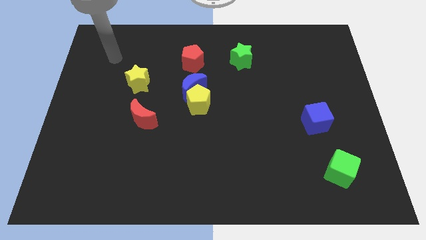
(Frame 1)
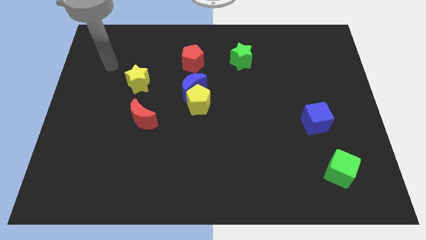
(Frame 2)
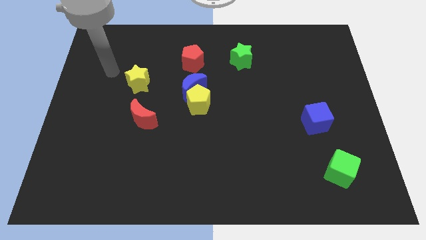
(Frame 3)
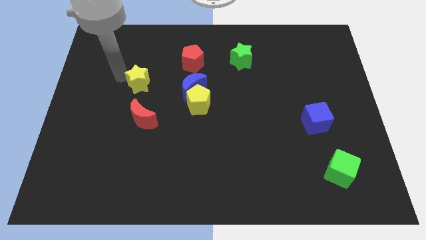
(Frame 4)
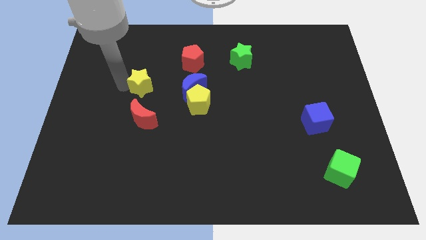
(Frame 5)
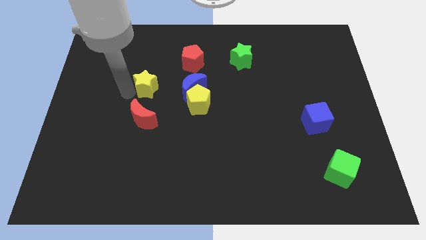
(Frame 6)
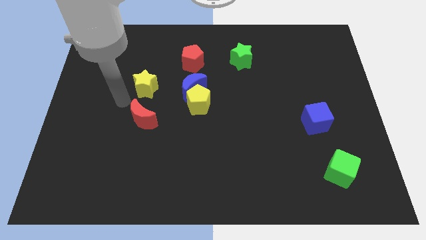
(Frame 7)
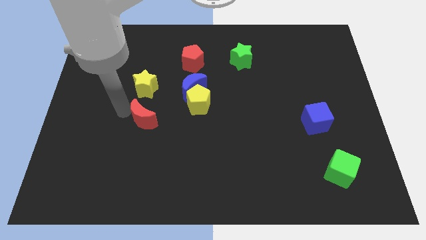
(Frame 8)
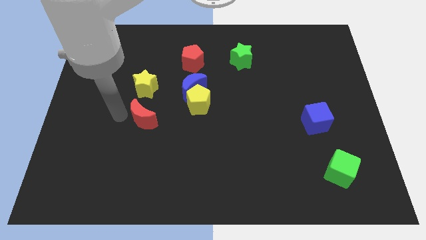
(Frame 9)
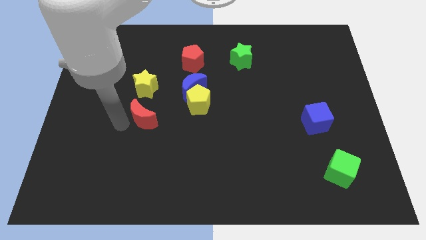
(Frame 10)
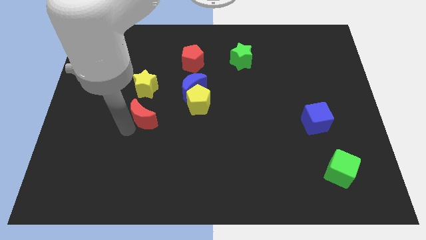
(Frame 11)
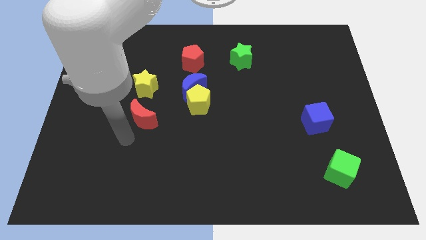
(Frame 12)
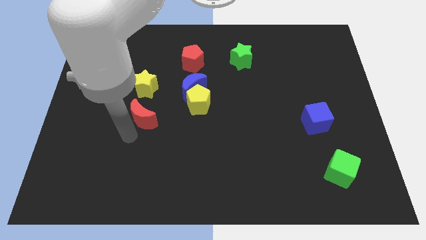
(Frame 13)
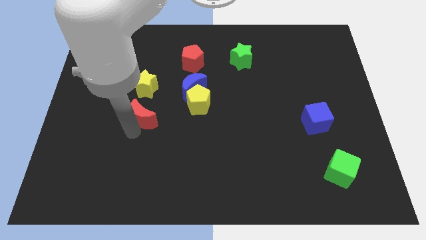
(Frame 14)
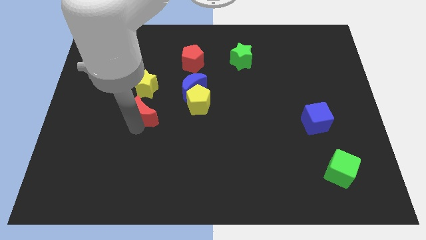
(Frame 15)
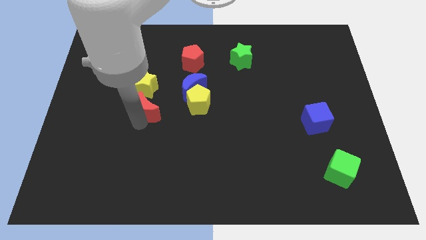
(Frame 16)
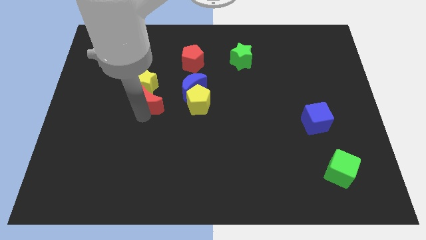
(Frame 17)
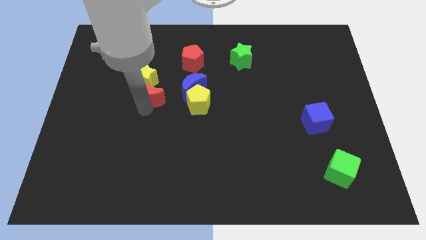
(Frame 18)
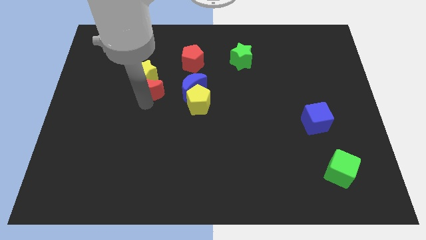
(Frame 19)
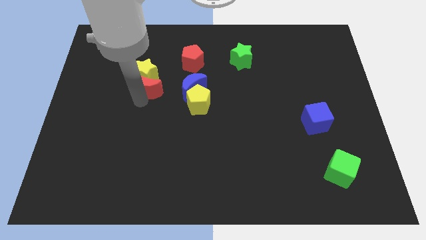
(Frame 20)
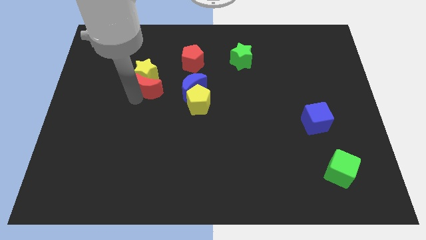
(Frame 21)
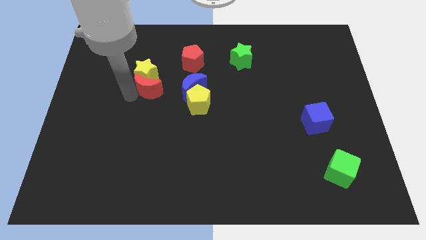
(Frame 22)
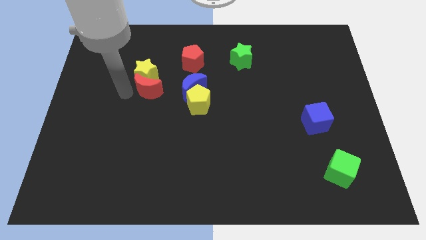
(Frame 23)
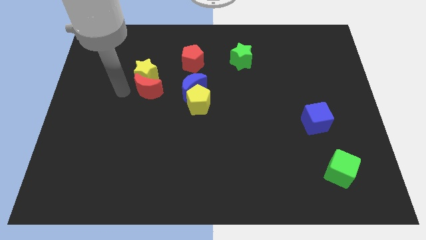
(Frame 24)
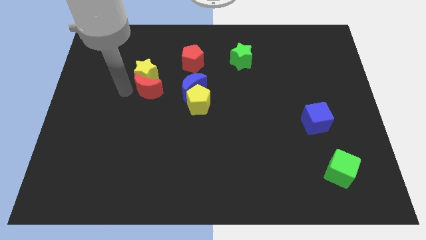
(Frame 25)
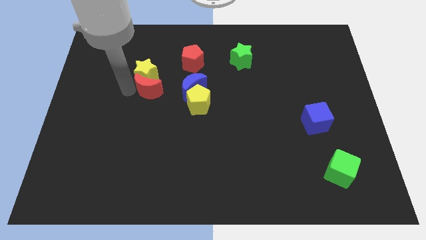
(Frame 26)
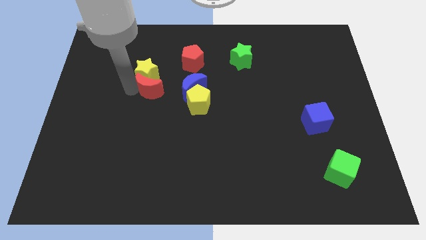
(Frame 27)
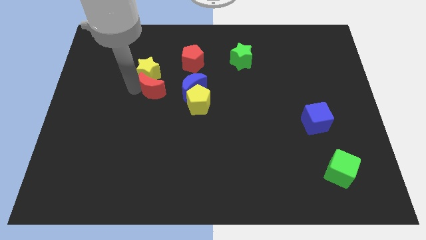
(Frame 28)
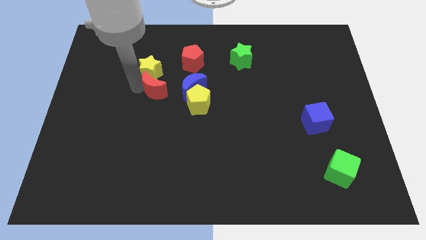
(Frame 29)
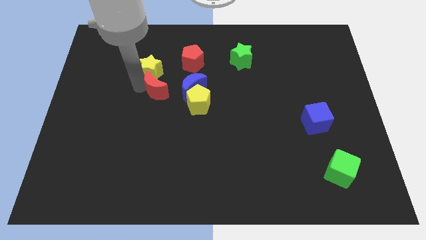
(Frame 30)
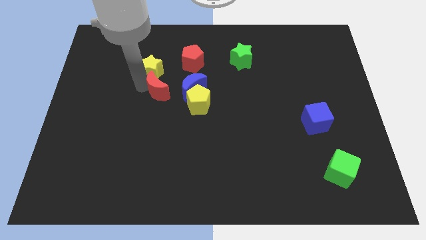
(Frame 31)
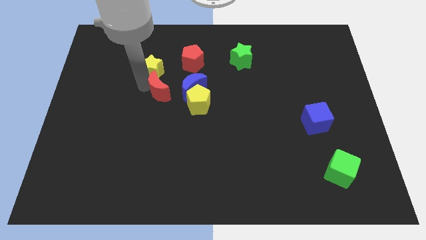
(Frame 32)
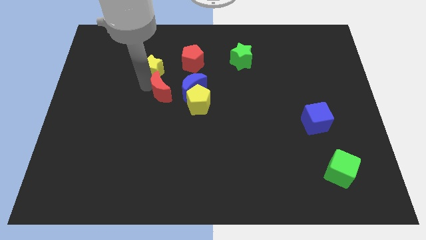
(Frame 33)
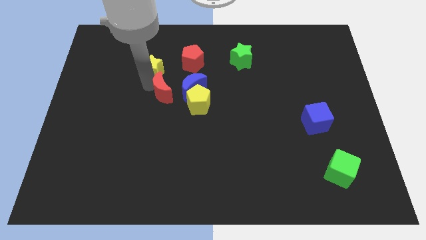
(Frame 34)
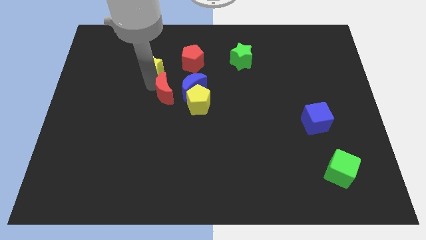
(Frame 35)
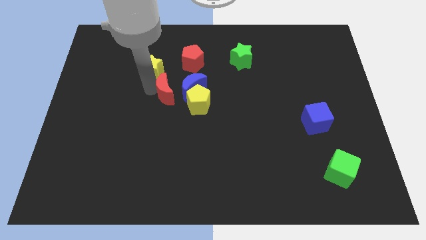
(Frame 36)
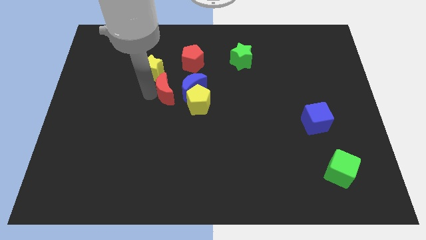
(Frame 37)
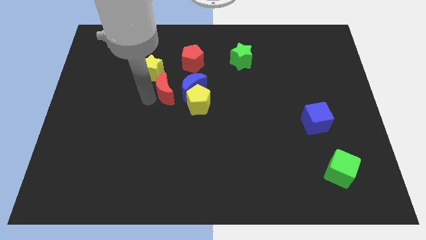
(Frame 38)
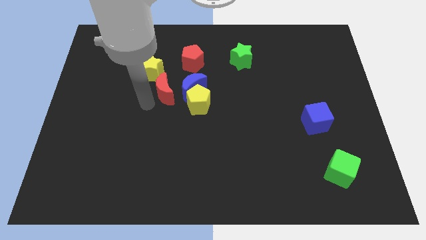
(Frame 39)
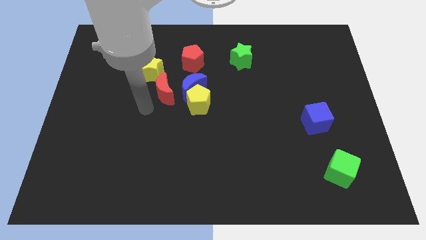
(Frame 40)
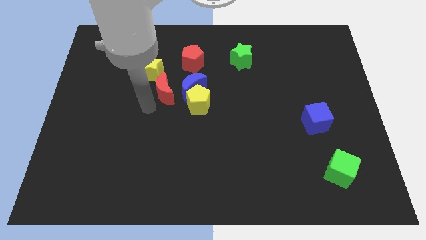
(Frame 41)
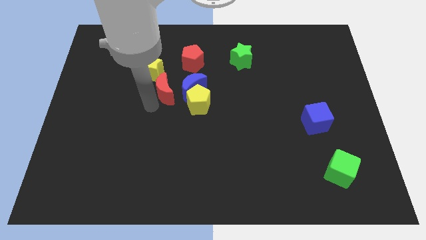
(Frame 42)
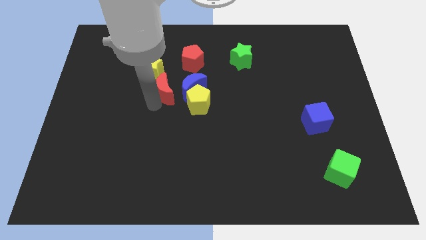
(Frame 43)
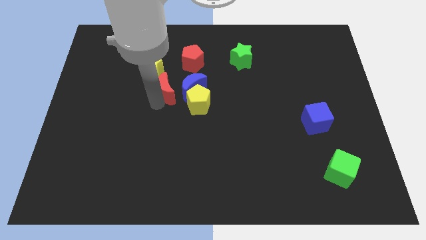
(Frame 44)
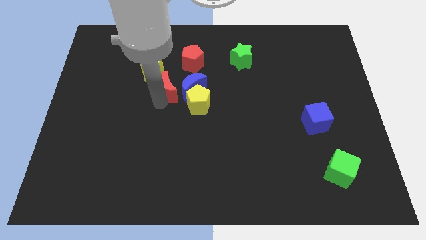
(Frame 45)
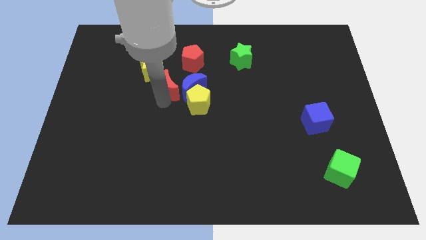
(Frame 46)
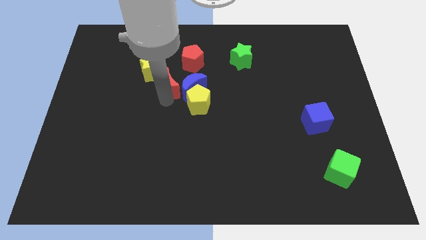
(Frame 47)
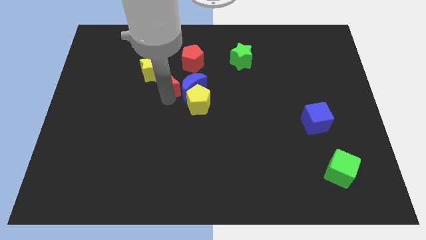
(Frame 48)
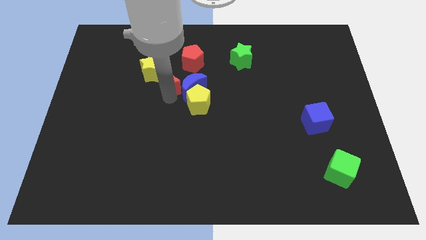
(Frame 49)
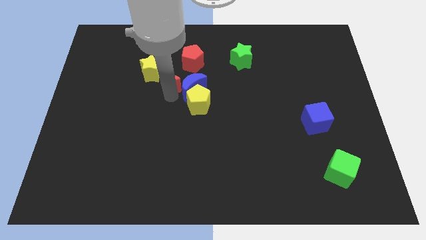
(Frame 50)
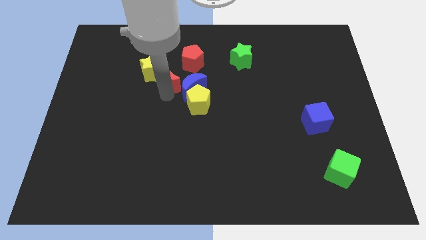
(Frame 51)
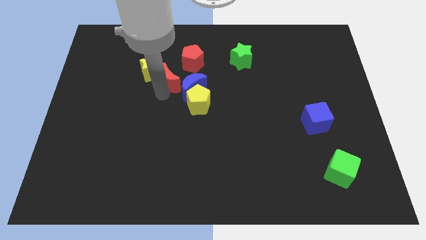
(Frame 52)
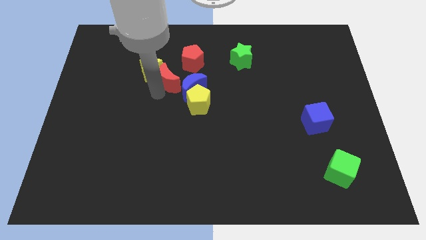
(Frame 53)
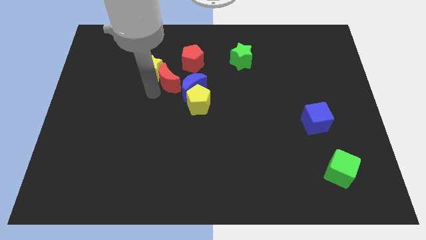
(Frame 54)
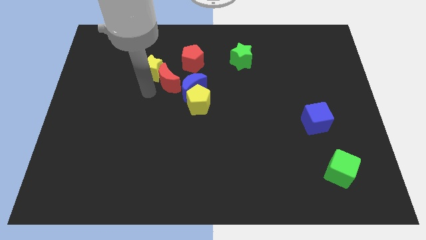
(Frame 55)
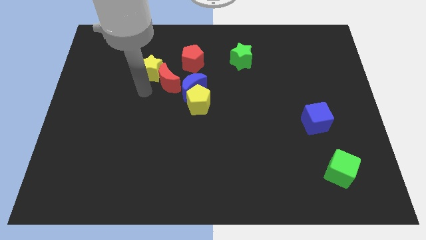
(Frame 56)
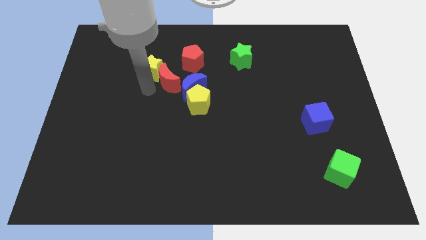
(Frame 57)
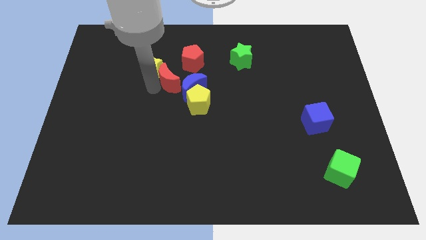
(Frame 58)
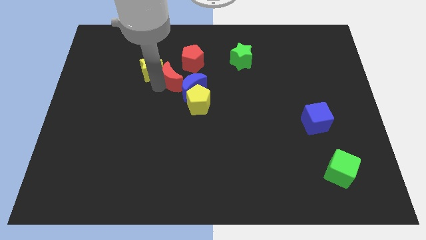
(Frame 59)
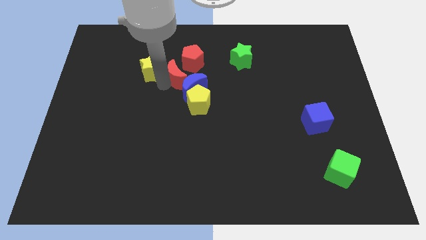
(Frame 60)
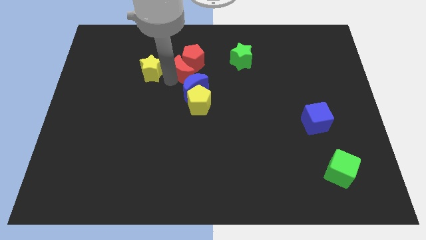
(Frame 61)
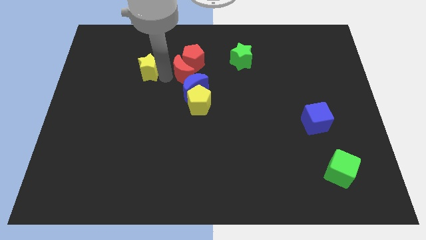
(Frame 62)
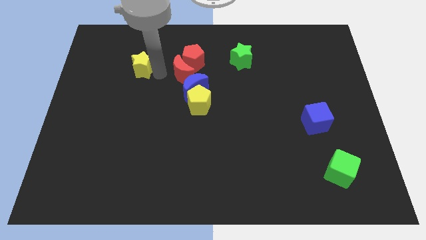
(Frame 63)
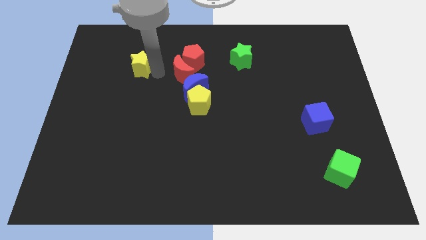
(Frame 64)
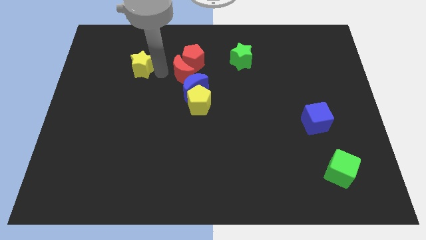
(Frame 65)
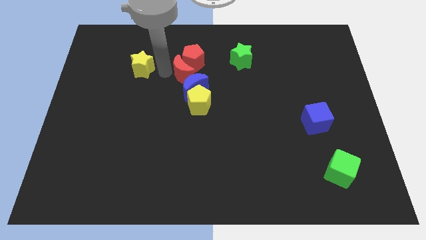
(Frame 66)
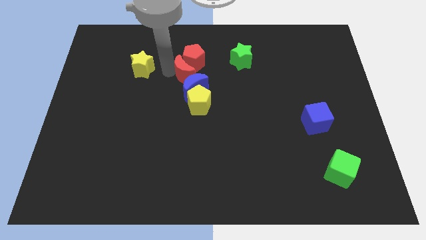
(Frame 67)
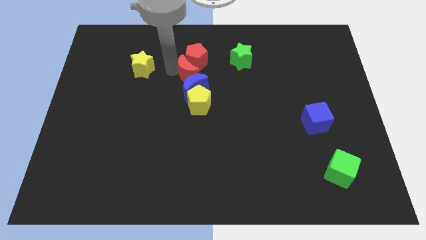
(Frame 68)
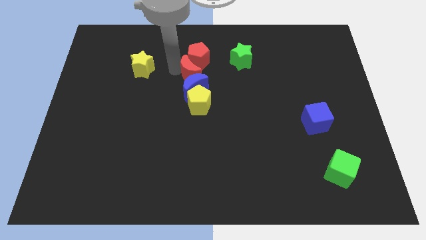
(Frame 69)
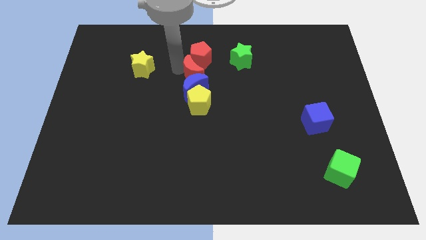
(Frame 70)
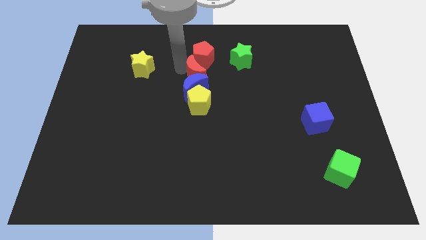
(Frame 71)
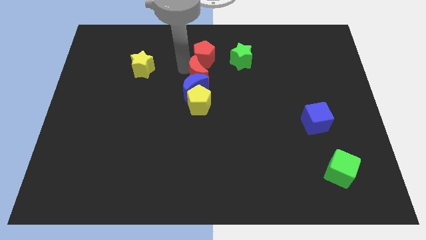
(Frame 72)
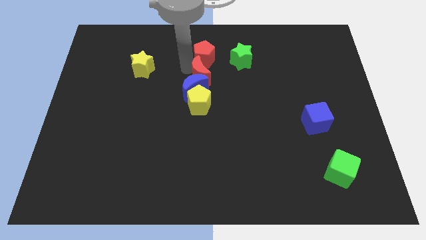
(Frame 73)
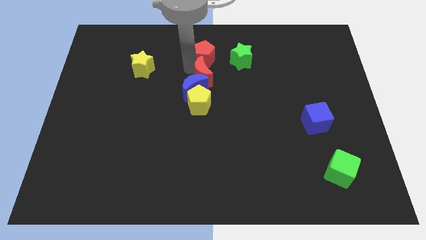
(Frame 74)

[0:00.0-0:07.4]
push the red moon diagonally down and to the right of the red pentagon
